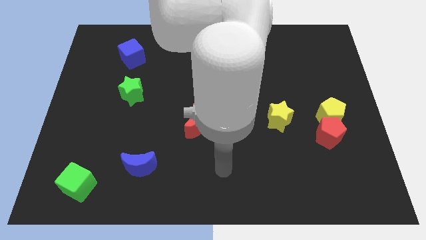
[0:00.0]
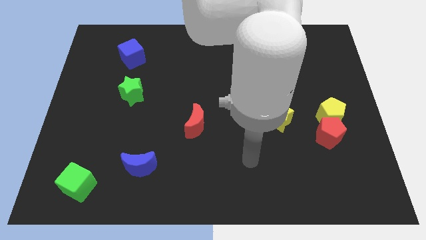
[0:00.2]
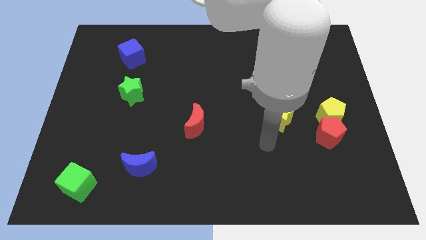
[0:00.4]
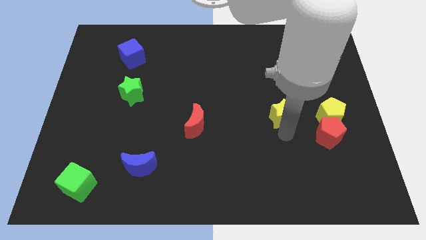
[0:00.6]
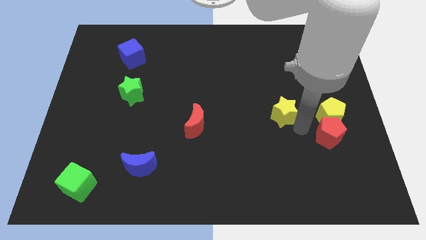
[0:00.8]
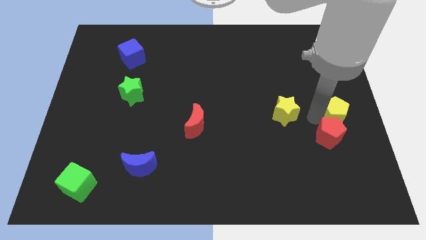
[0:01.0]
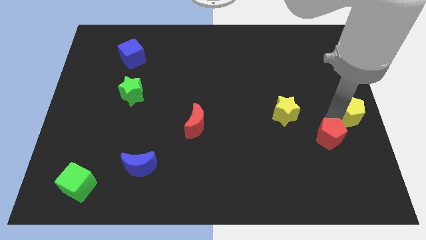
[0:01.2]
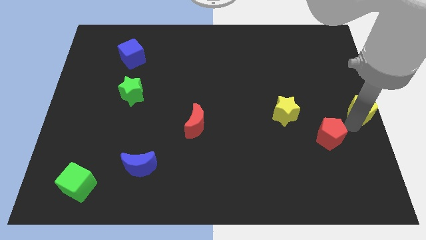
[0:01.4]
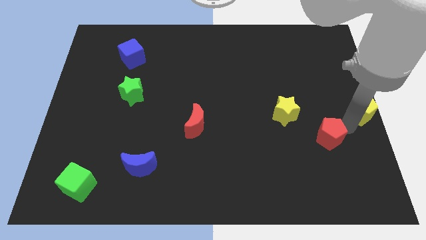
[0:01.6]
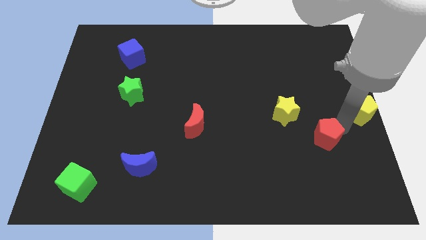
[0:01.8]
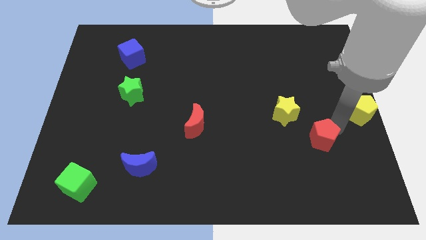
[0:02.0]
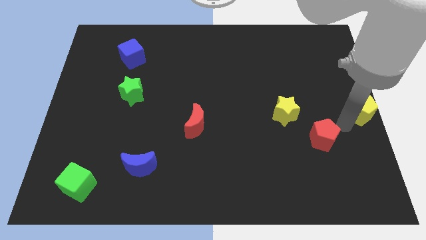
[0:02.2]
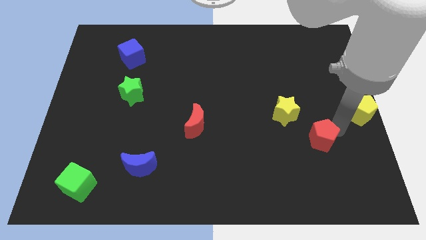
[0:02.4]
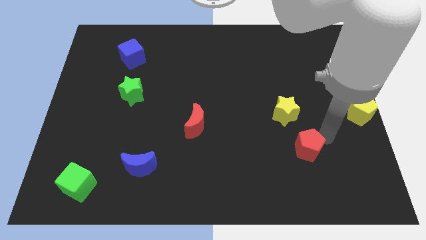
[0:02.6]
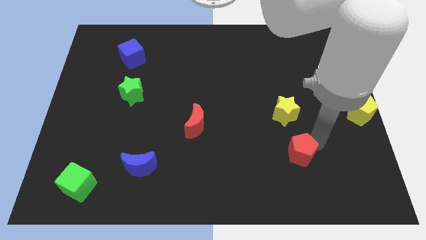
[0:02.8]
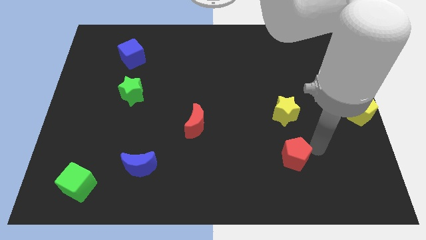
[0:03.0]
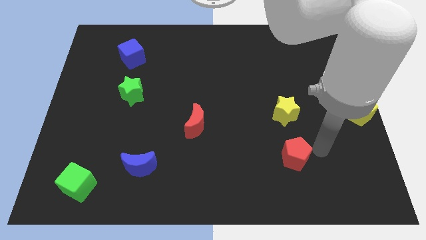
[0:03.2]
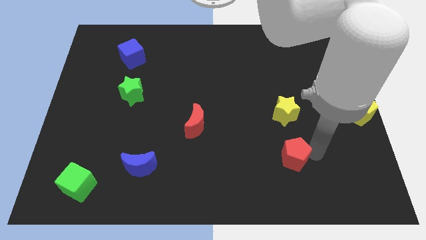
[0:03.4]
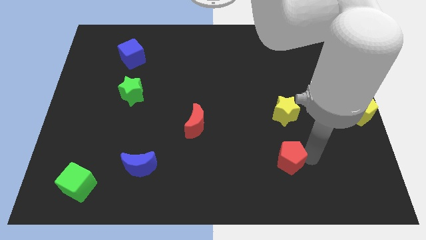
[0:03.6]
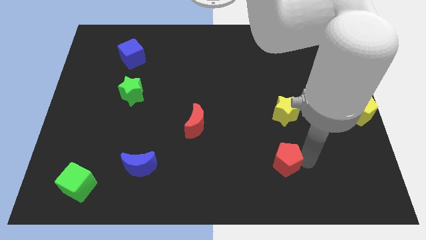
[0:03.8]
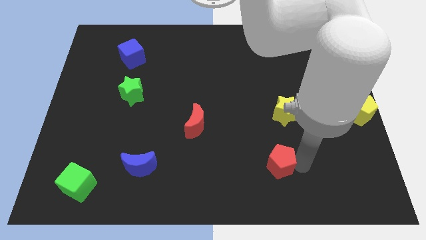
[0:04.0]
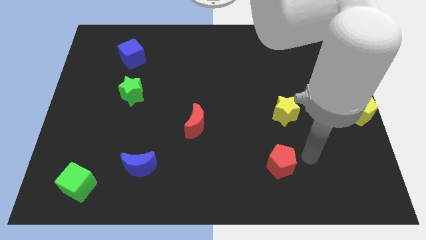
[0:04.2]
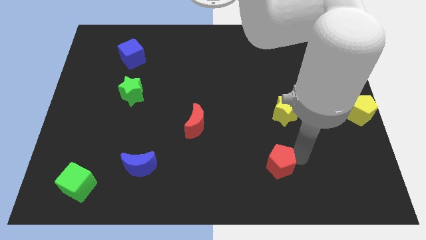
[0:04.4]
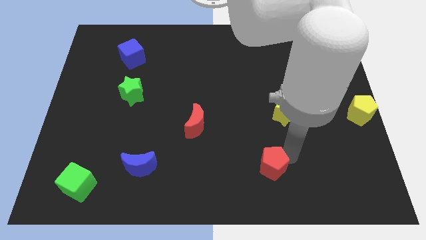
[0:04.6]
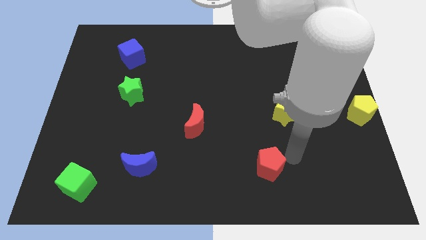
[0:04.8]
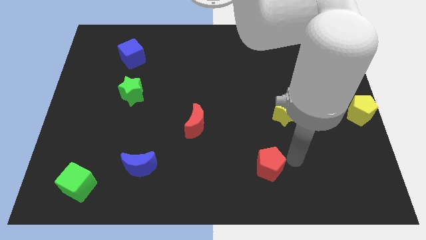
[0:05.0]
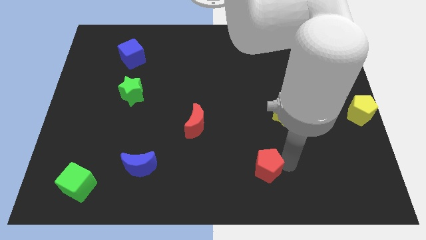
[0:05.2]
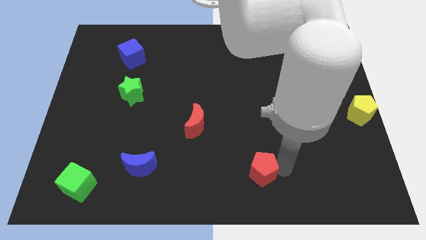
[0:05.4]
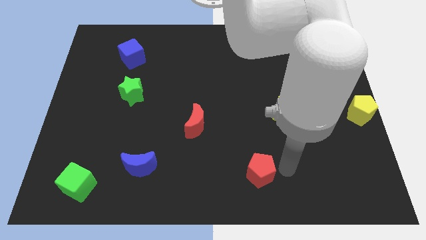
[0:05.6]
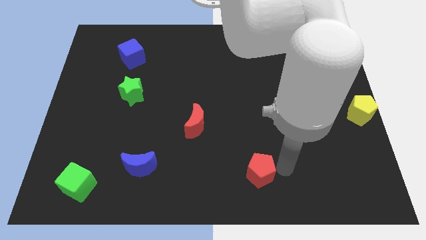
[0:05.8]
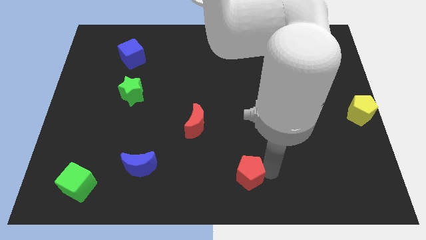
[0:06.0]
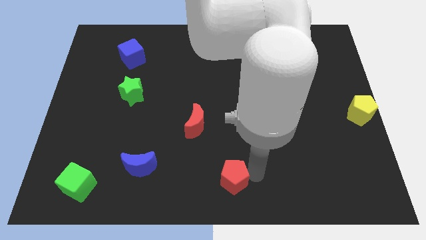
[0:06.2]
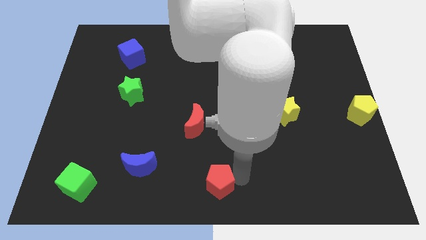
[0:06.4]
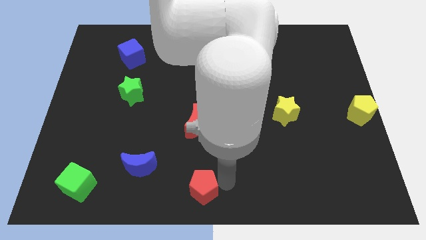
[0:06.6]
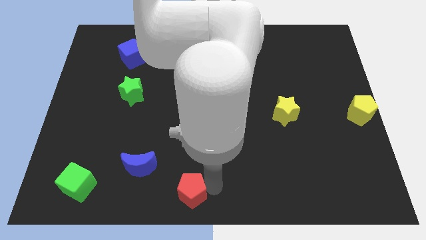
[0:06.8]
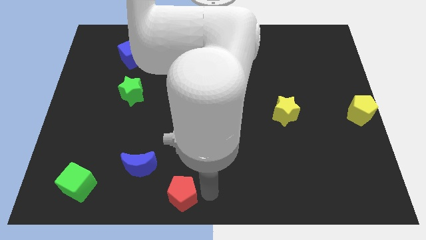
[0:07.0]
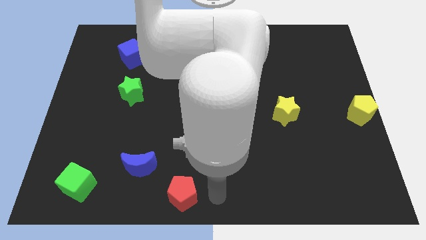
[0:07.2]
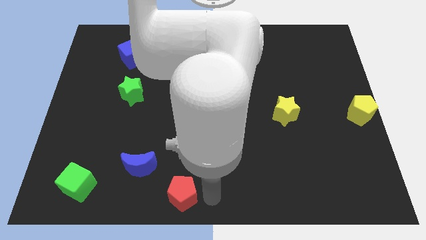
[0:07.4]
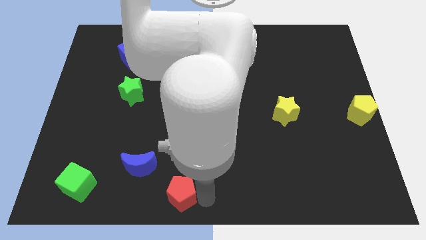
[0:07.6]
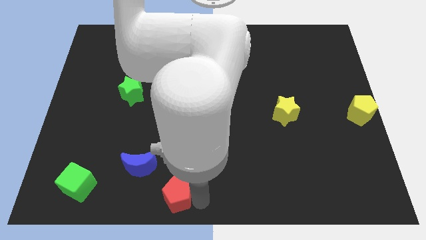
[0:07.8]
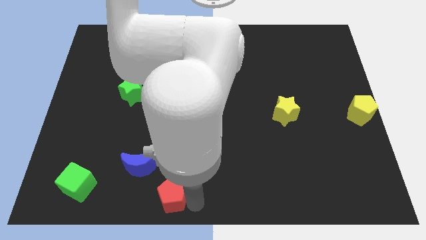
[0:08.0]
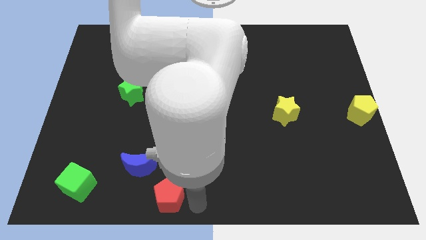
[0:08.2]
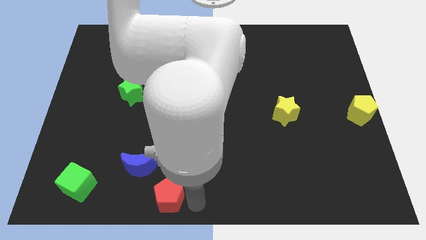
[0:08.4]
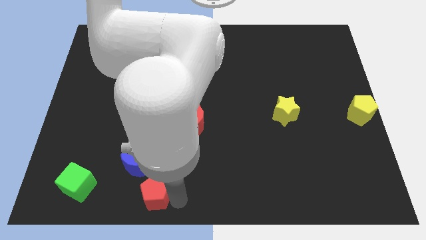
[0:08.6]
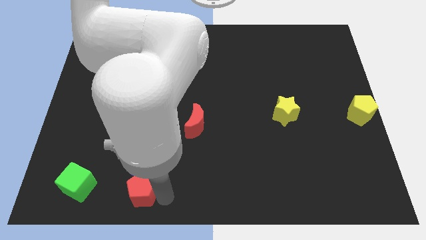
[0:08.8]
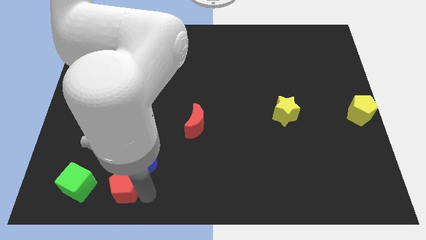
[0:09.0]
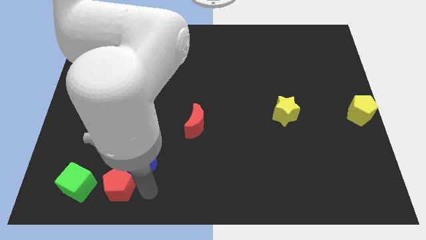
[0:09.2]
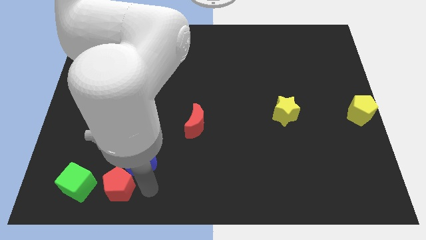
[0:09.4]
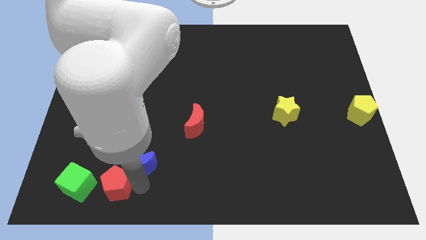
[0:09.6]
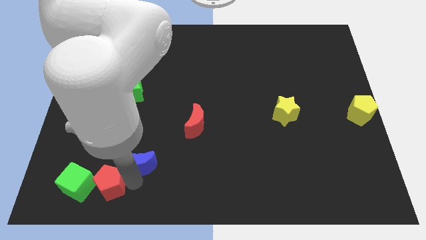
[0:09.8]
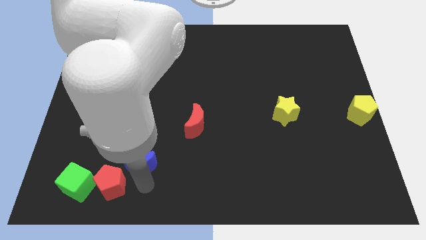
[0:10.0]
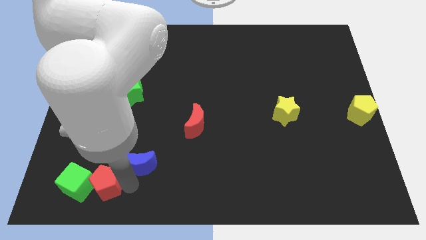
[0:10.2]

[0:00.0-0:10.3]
put the red pentagon towards the green cube

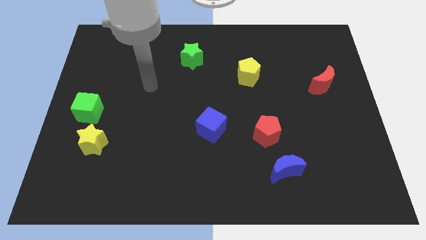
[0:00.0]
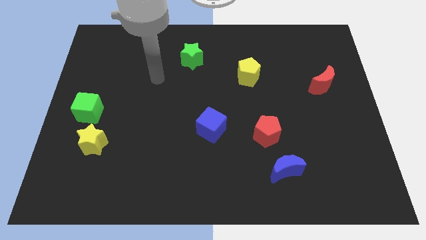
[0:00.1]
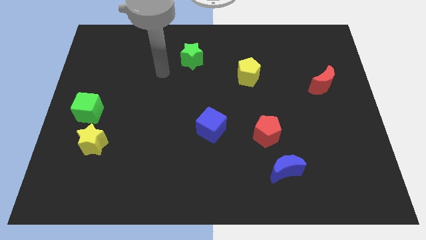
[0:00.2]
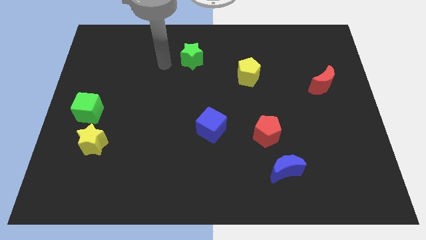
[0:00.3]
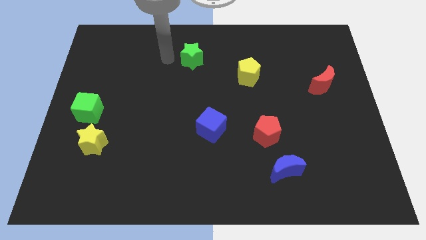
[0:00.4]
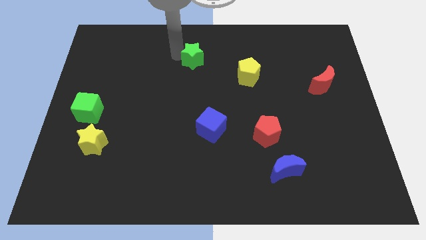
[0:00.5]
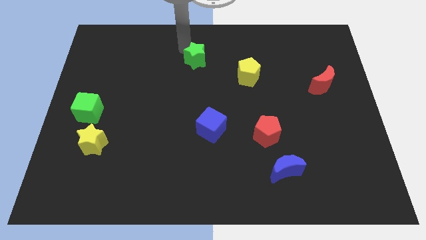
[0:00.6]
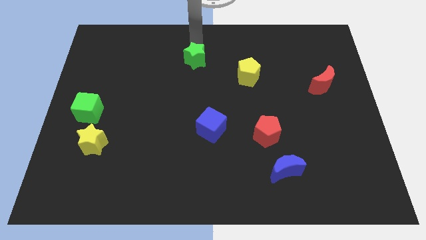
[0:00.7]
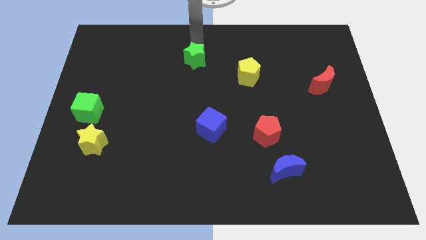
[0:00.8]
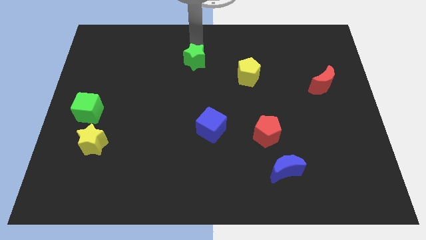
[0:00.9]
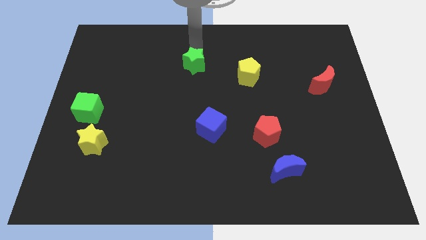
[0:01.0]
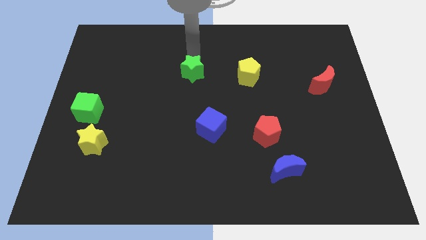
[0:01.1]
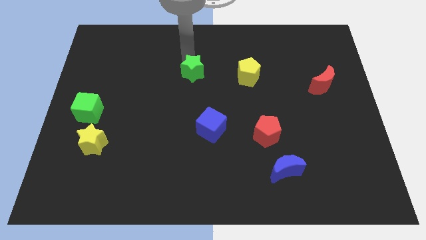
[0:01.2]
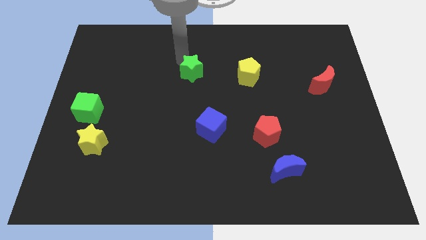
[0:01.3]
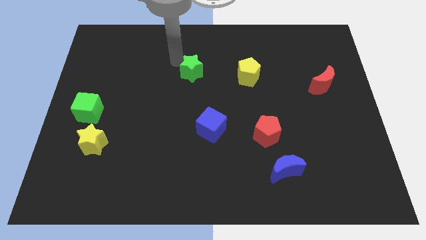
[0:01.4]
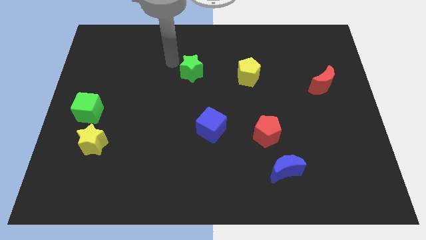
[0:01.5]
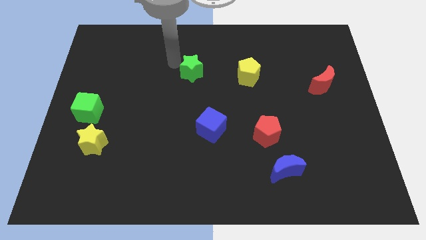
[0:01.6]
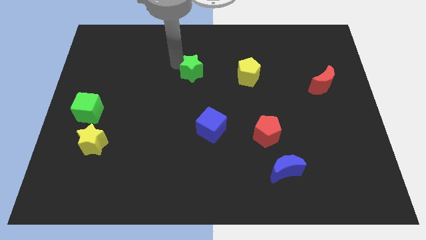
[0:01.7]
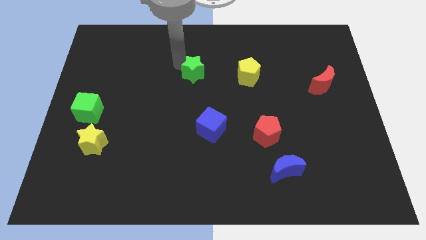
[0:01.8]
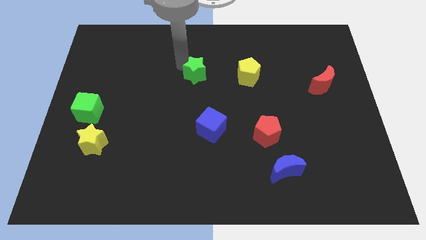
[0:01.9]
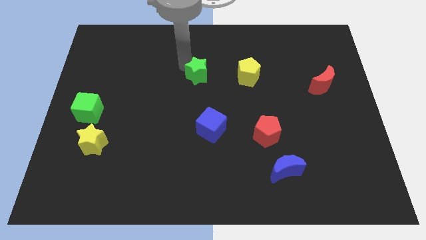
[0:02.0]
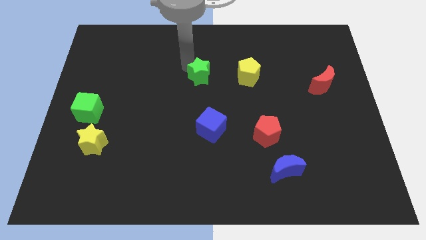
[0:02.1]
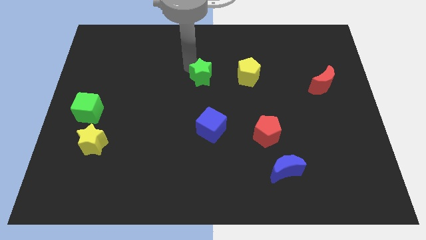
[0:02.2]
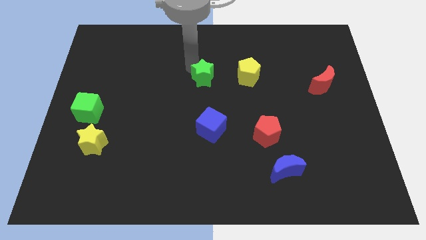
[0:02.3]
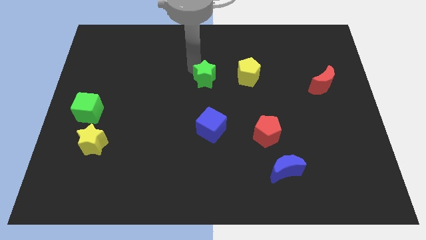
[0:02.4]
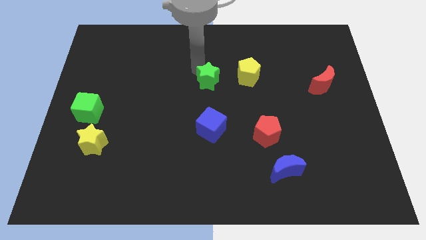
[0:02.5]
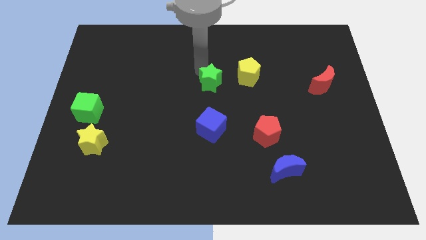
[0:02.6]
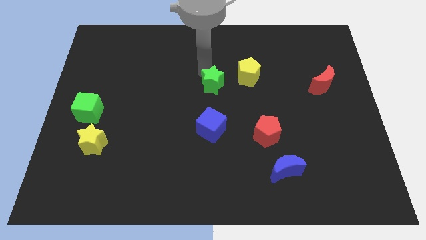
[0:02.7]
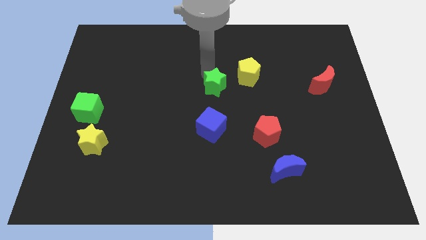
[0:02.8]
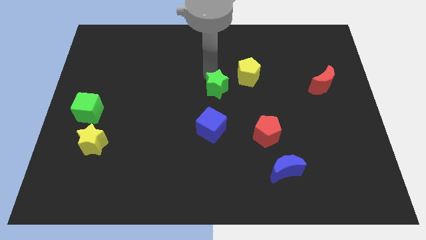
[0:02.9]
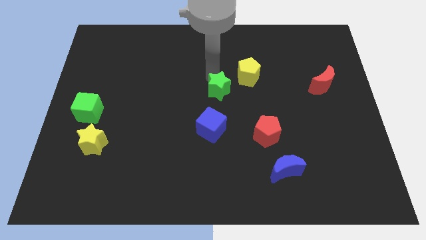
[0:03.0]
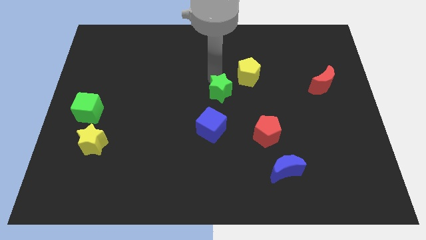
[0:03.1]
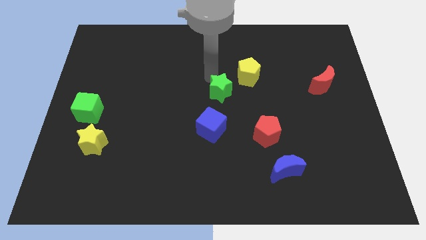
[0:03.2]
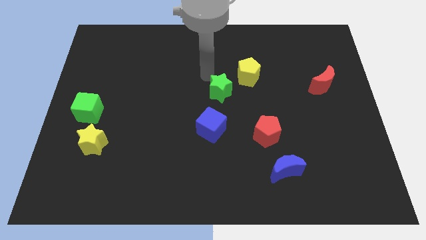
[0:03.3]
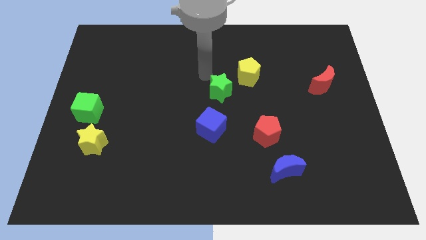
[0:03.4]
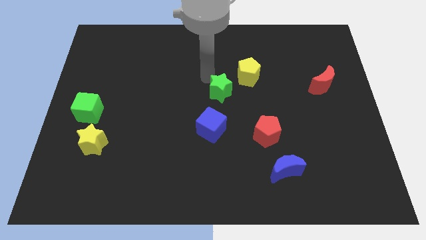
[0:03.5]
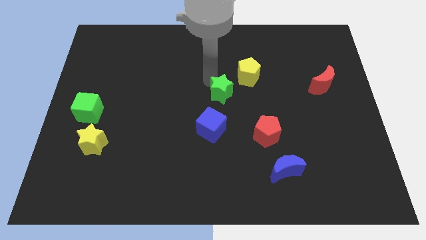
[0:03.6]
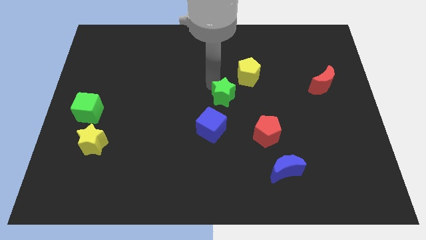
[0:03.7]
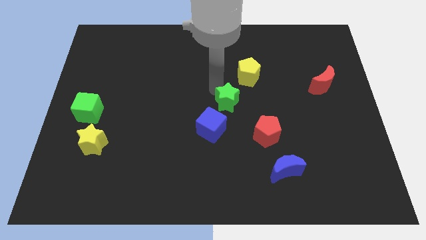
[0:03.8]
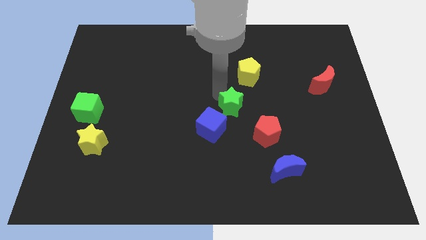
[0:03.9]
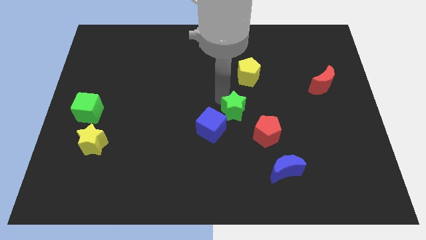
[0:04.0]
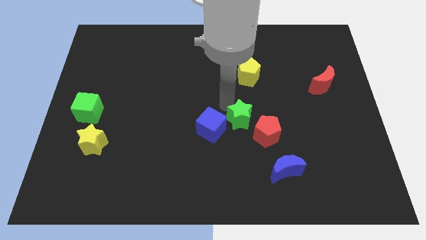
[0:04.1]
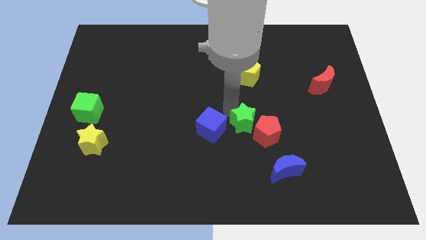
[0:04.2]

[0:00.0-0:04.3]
move the green star next to the red pentagon
